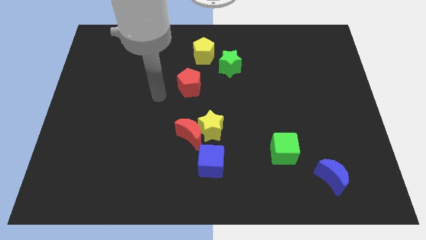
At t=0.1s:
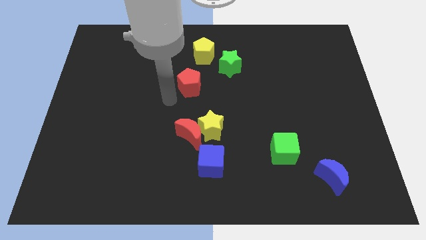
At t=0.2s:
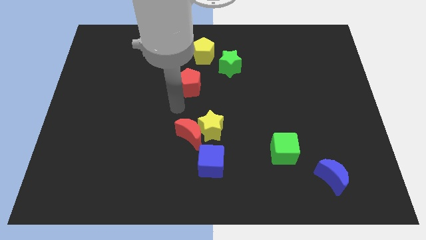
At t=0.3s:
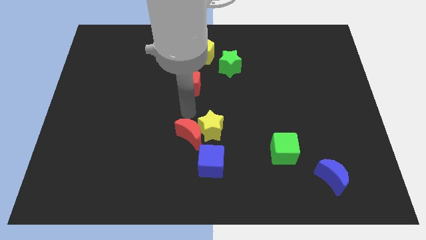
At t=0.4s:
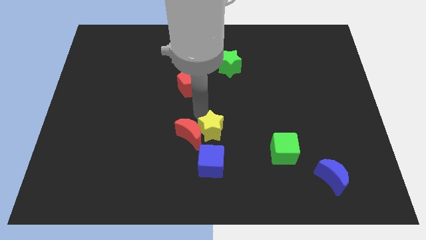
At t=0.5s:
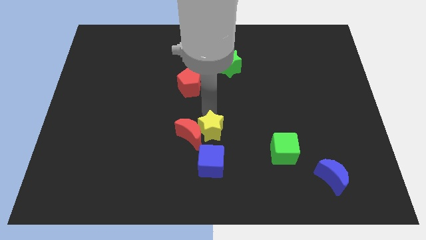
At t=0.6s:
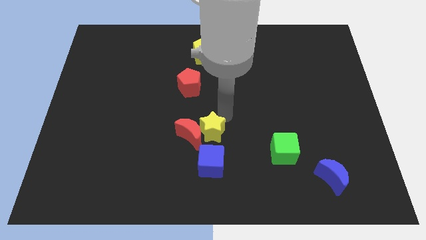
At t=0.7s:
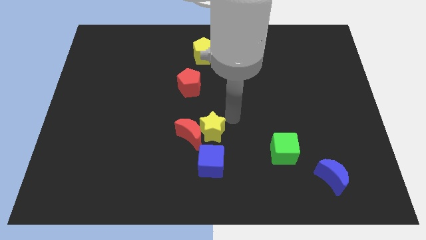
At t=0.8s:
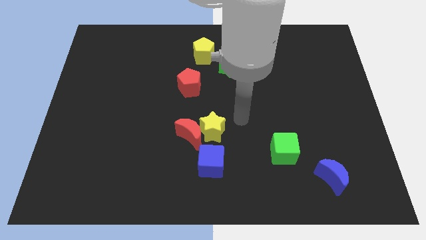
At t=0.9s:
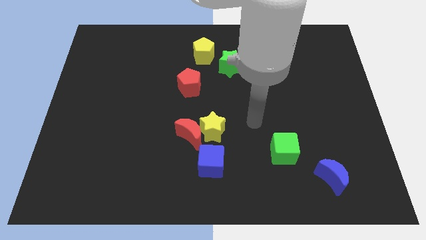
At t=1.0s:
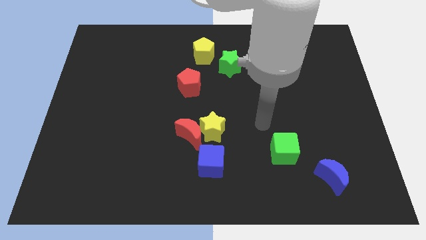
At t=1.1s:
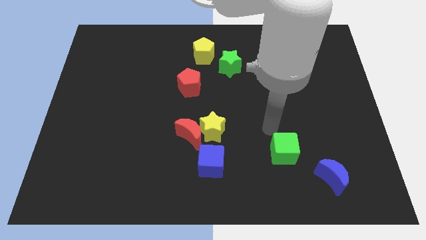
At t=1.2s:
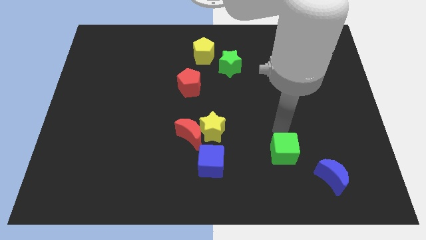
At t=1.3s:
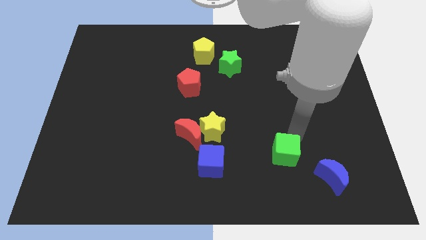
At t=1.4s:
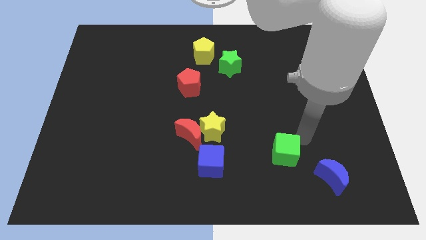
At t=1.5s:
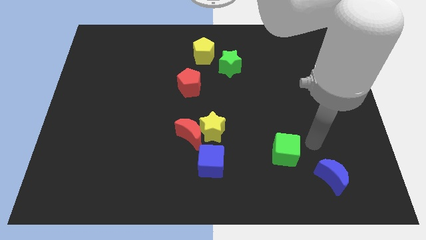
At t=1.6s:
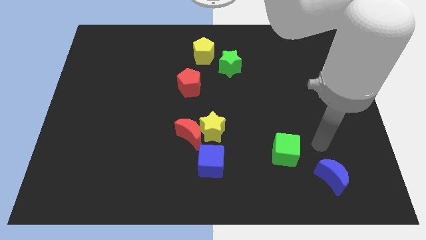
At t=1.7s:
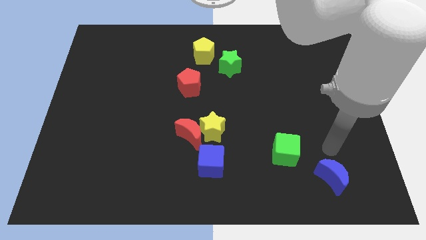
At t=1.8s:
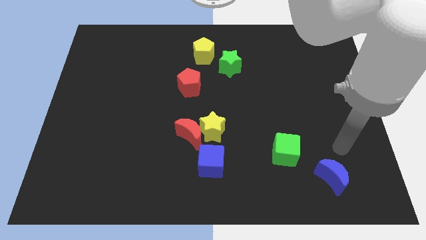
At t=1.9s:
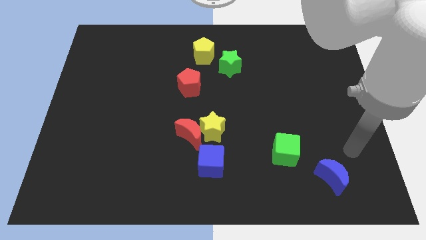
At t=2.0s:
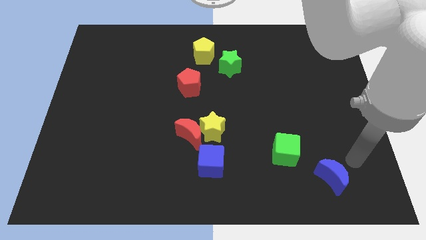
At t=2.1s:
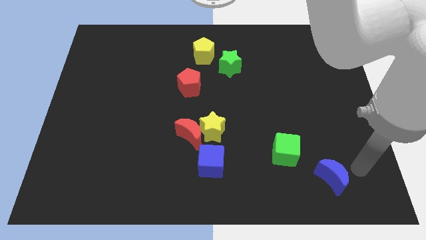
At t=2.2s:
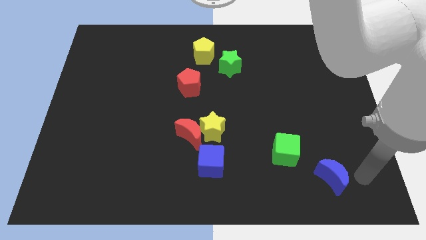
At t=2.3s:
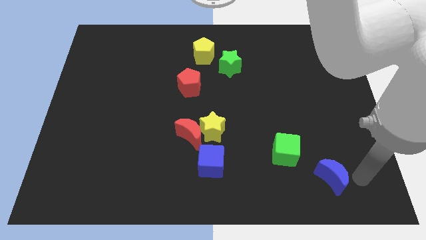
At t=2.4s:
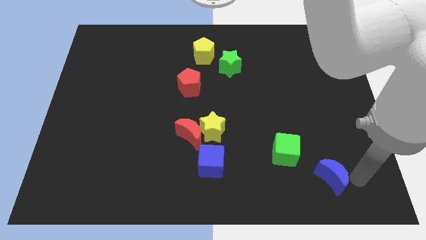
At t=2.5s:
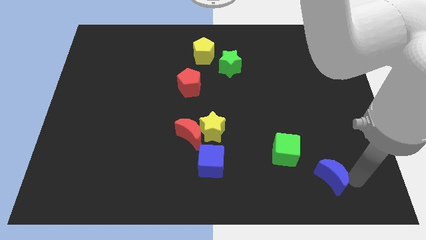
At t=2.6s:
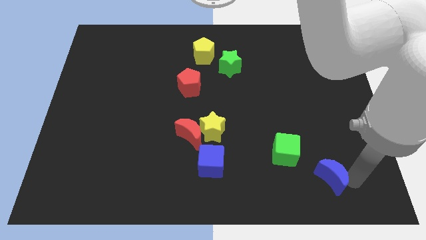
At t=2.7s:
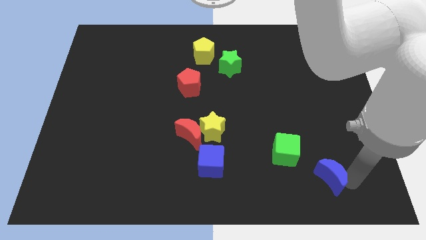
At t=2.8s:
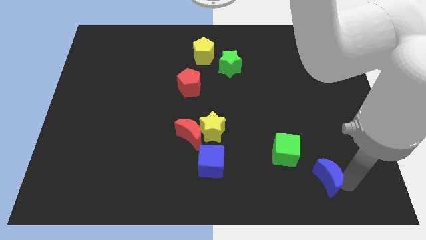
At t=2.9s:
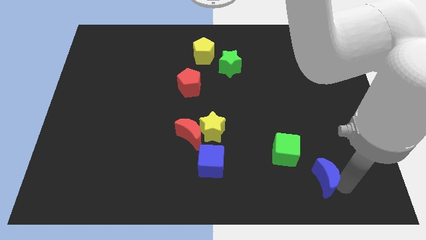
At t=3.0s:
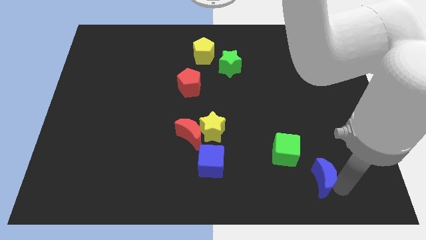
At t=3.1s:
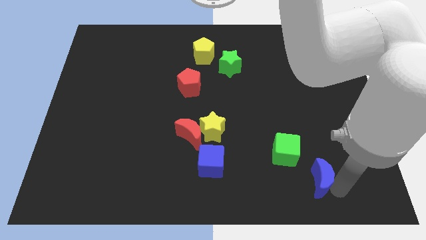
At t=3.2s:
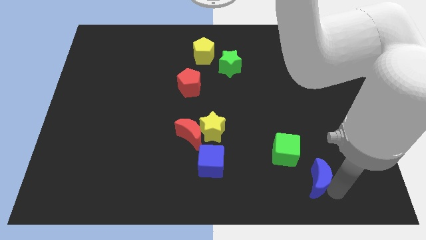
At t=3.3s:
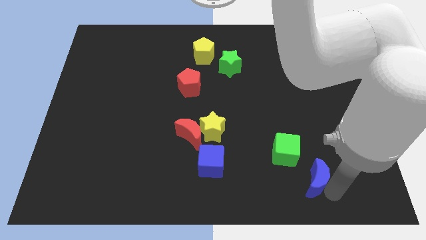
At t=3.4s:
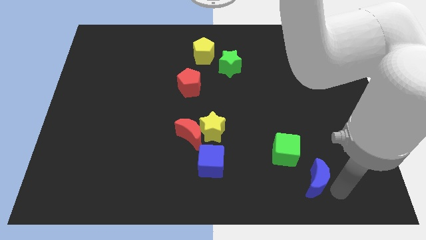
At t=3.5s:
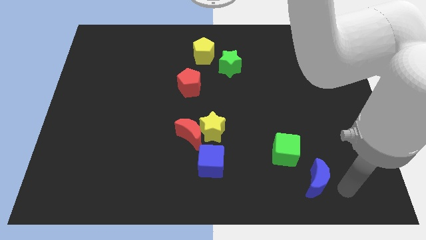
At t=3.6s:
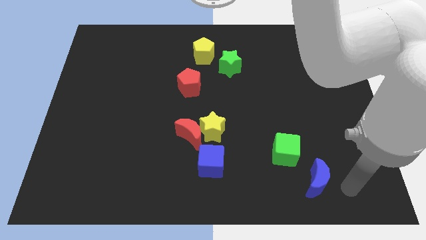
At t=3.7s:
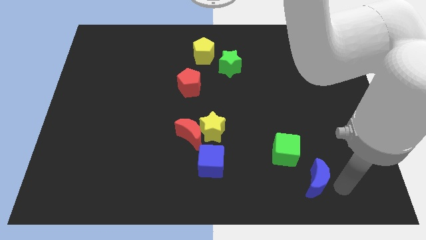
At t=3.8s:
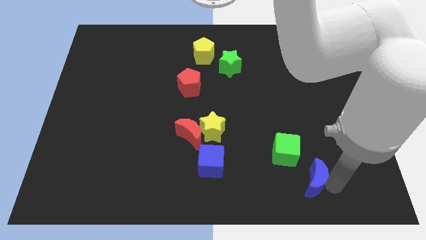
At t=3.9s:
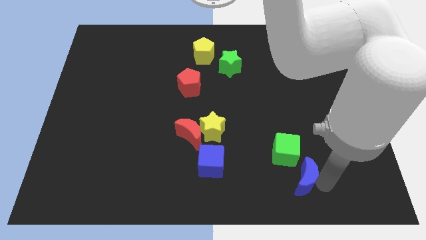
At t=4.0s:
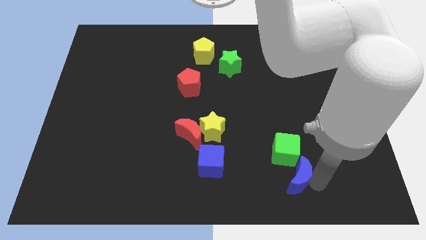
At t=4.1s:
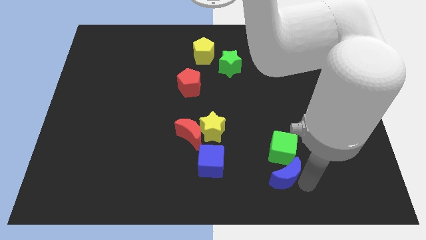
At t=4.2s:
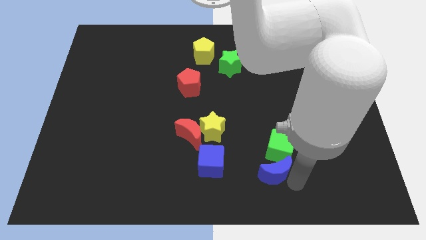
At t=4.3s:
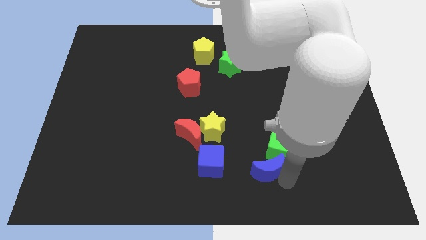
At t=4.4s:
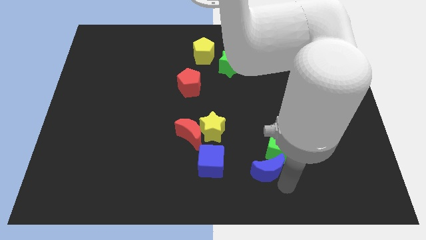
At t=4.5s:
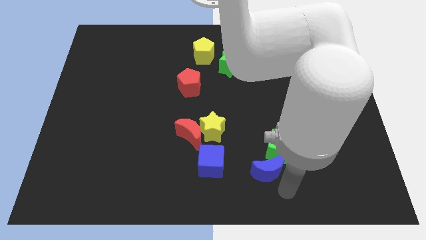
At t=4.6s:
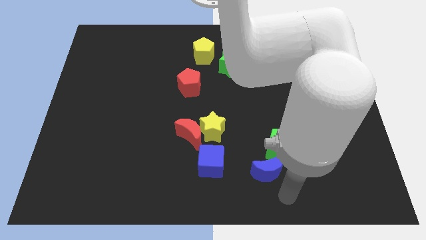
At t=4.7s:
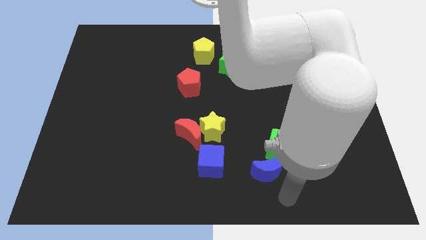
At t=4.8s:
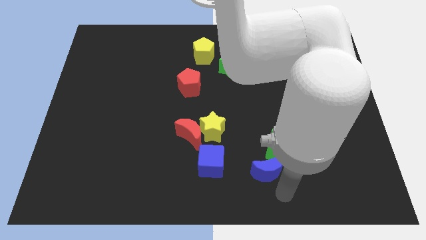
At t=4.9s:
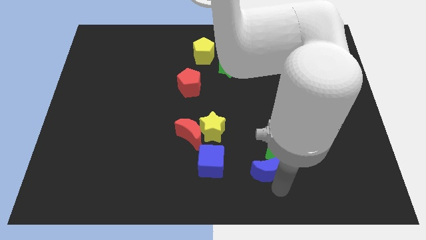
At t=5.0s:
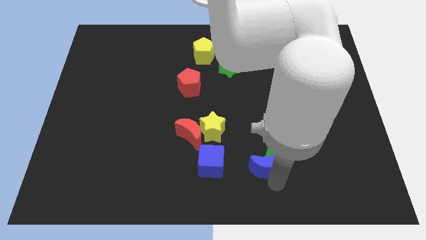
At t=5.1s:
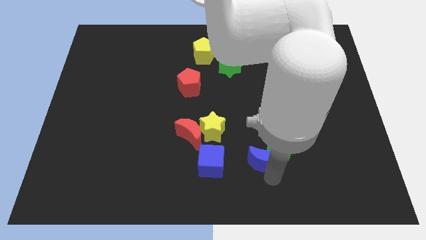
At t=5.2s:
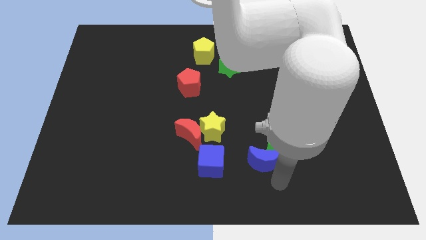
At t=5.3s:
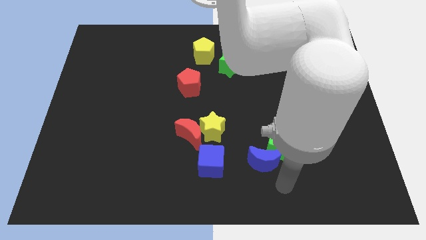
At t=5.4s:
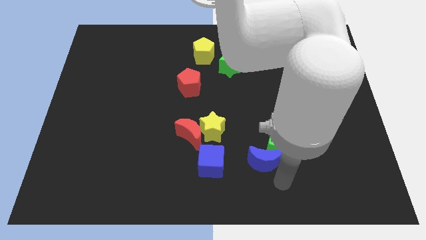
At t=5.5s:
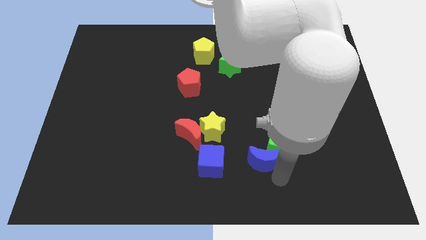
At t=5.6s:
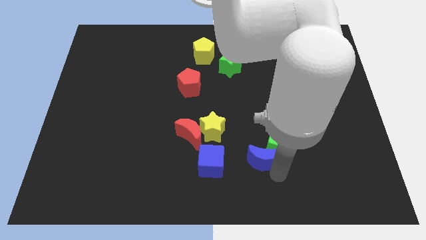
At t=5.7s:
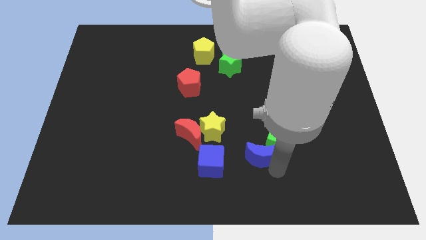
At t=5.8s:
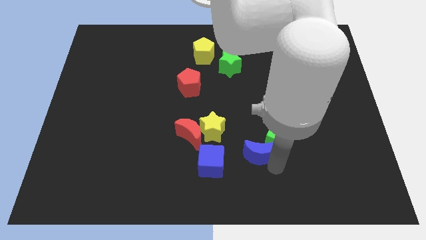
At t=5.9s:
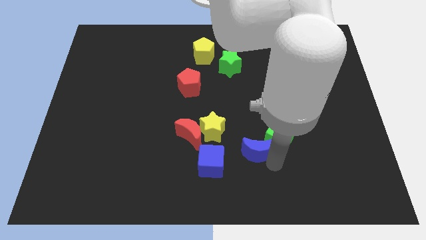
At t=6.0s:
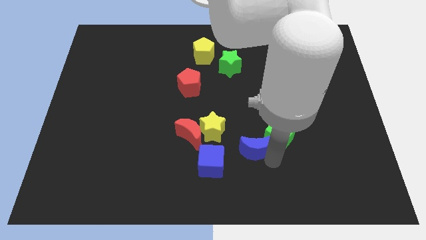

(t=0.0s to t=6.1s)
move the blue moon to the right side of the red moon

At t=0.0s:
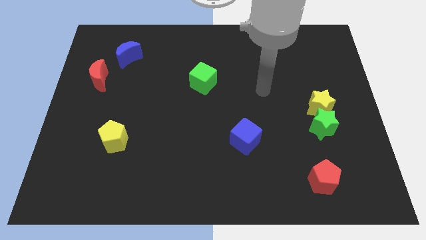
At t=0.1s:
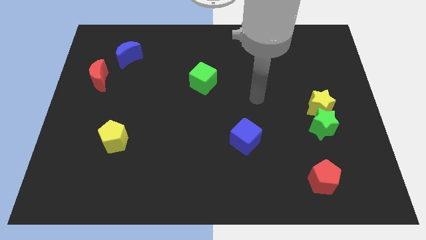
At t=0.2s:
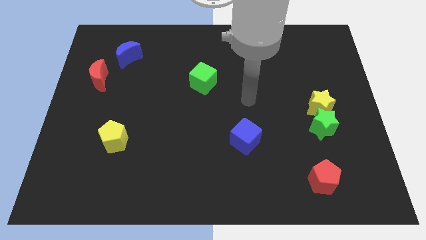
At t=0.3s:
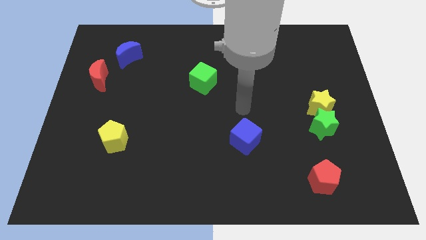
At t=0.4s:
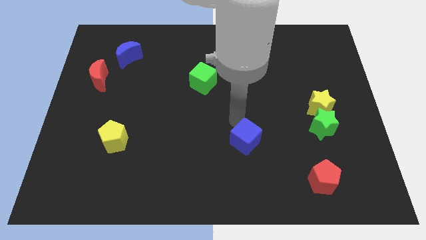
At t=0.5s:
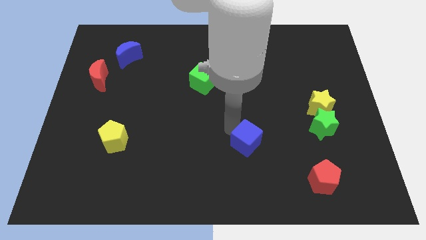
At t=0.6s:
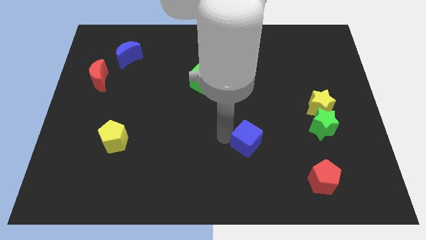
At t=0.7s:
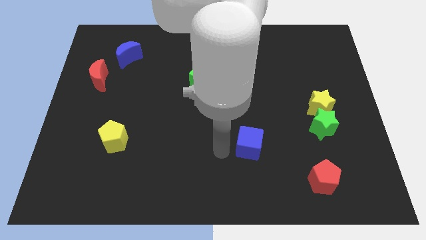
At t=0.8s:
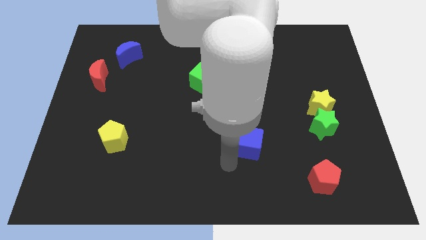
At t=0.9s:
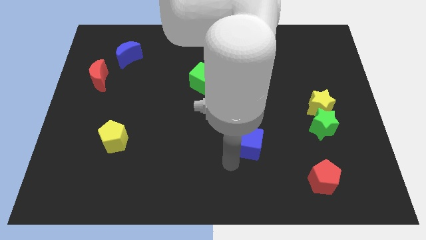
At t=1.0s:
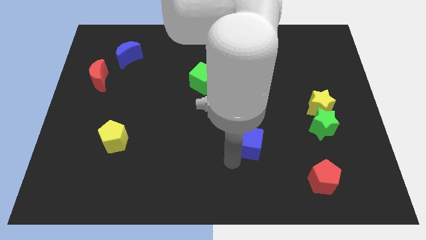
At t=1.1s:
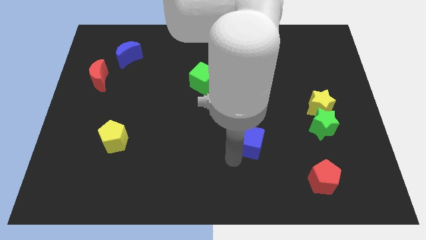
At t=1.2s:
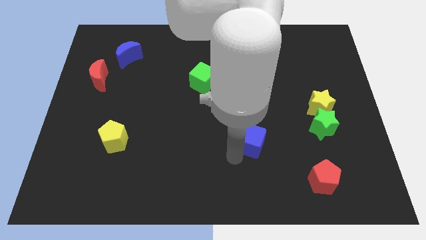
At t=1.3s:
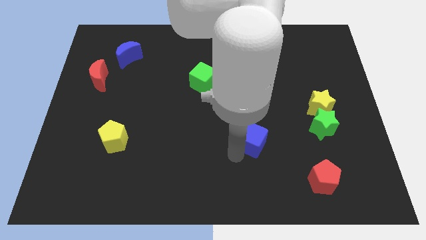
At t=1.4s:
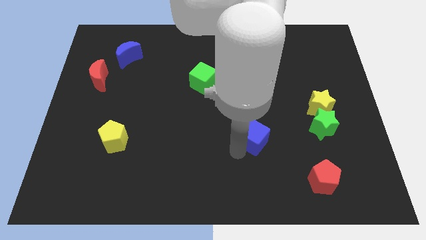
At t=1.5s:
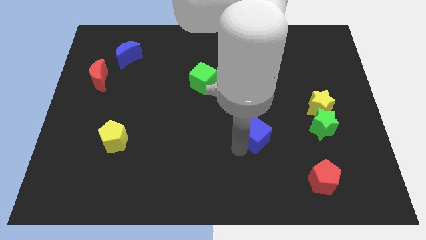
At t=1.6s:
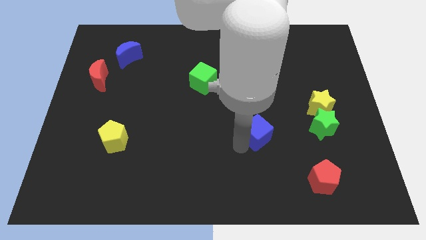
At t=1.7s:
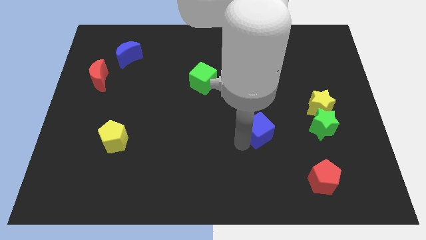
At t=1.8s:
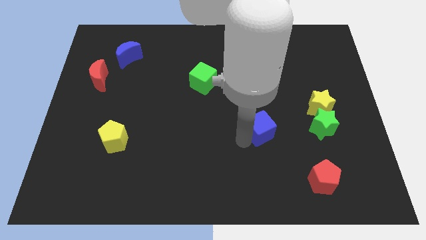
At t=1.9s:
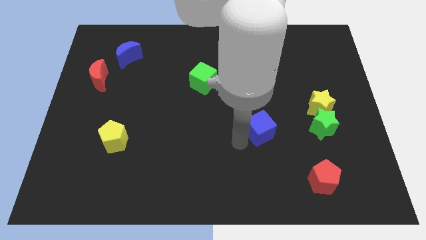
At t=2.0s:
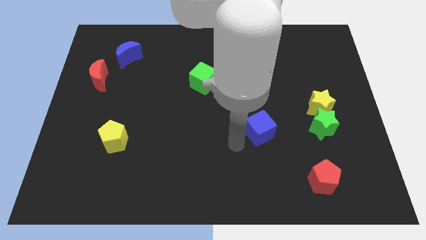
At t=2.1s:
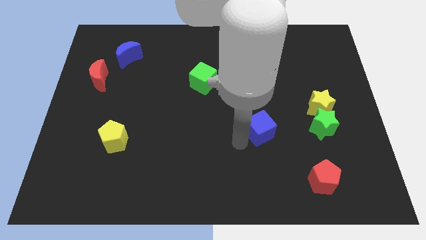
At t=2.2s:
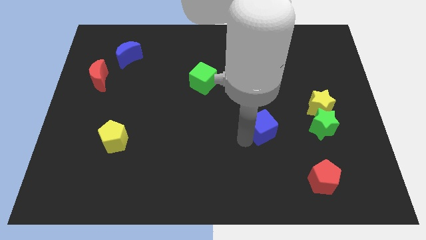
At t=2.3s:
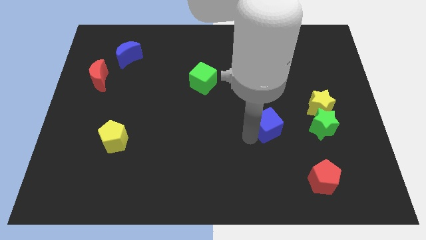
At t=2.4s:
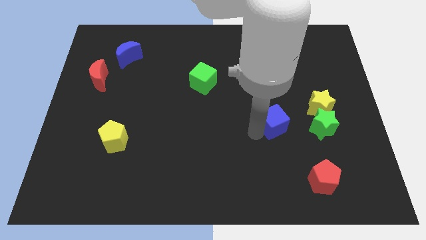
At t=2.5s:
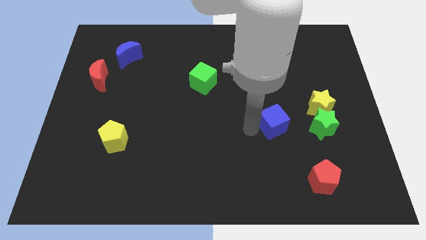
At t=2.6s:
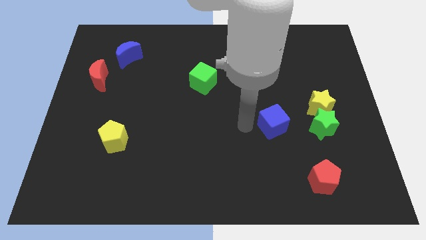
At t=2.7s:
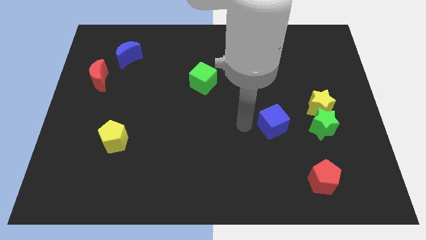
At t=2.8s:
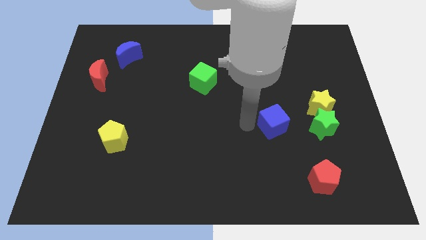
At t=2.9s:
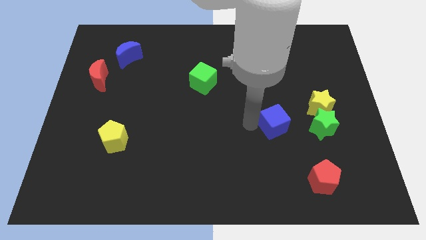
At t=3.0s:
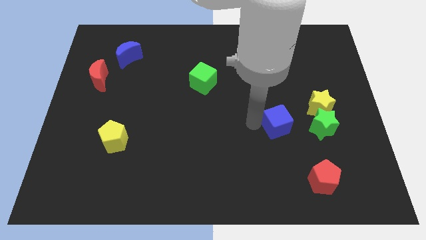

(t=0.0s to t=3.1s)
slide the blue cube to the bottom left of the yellow star
